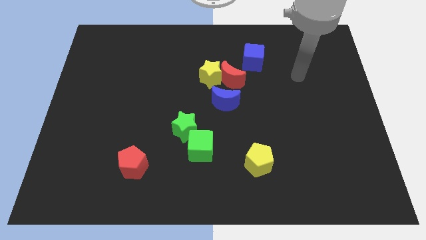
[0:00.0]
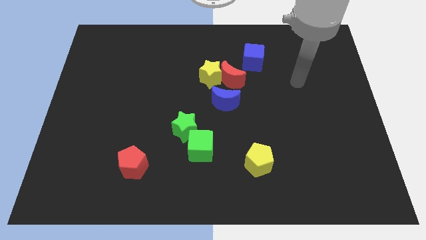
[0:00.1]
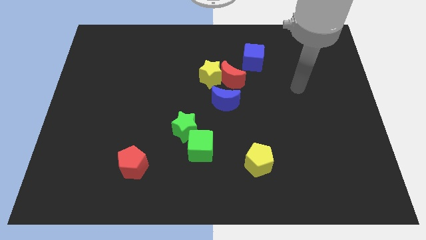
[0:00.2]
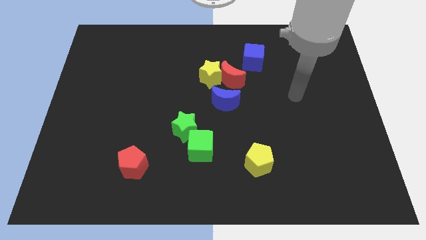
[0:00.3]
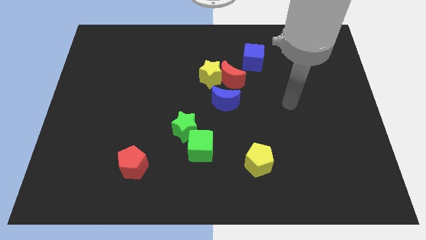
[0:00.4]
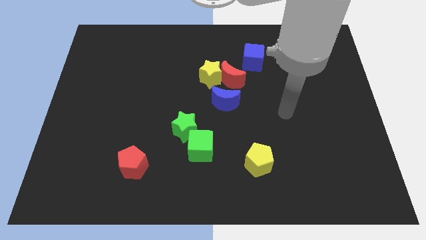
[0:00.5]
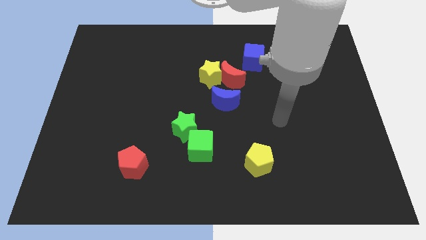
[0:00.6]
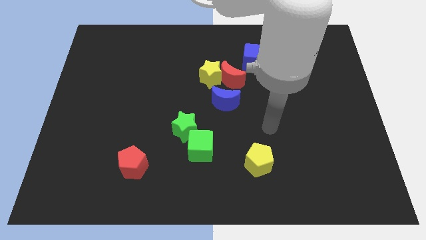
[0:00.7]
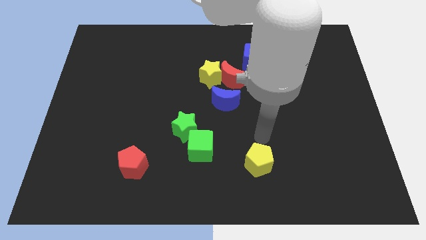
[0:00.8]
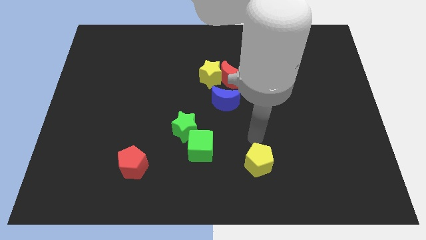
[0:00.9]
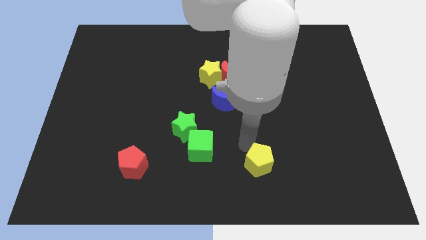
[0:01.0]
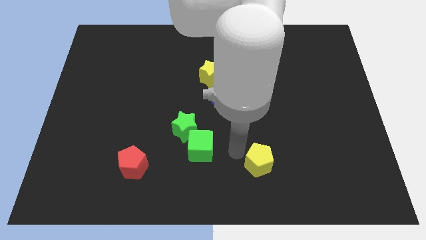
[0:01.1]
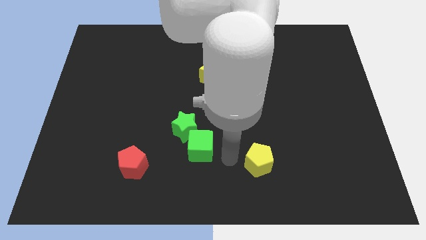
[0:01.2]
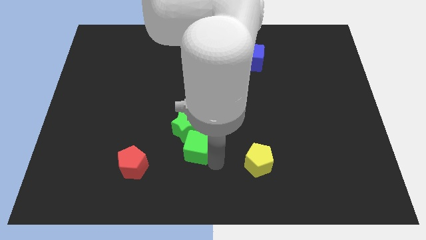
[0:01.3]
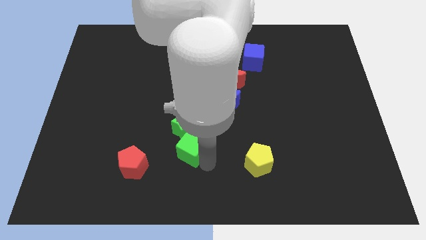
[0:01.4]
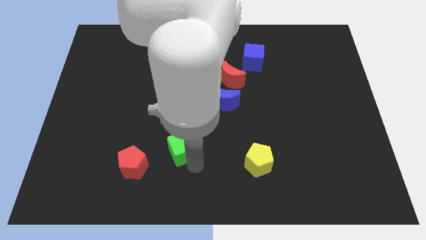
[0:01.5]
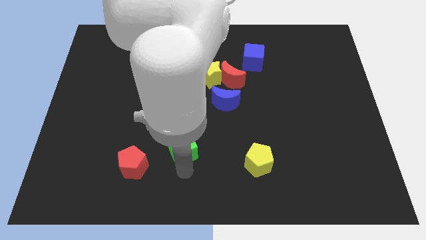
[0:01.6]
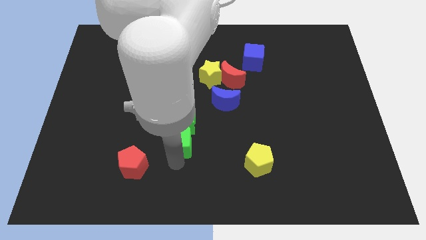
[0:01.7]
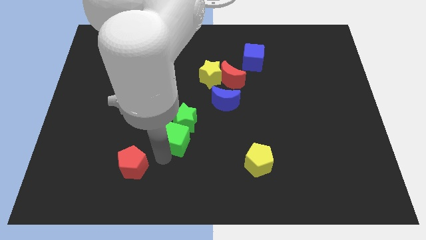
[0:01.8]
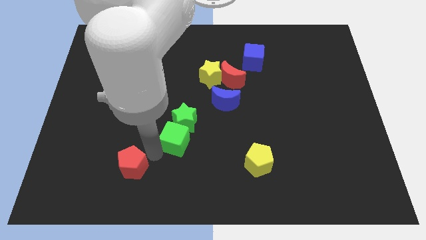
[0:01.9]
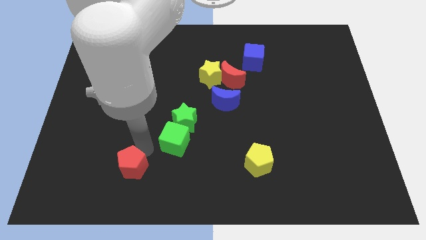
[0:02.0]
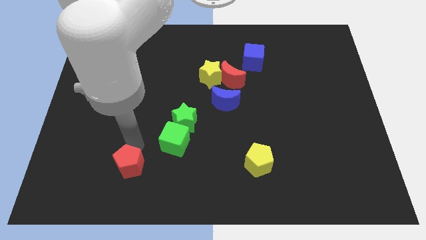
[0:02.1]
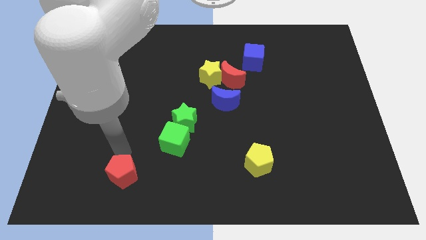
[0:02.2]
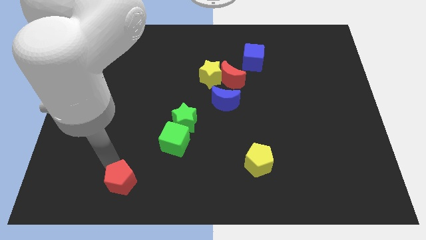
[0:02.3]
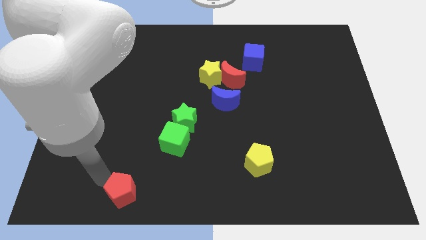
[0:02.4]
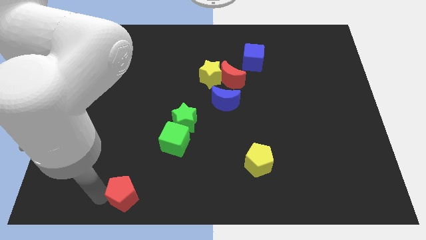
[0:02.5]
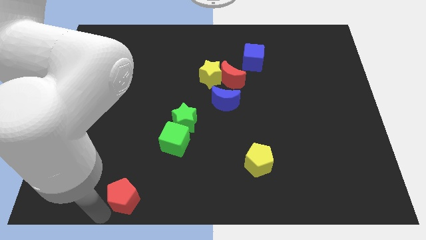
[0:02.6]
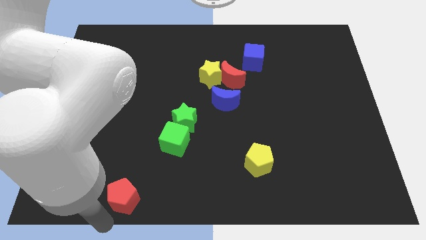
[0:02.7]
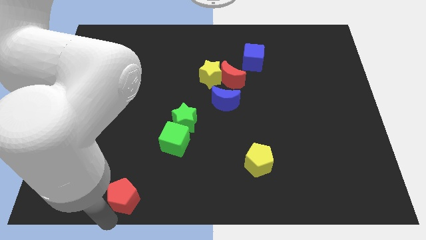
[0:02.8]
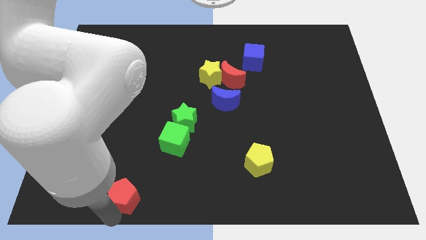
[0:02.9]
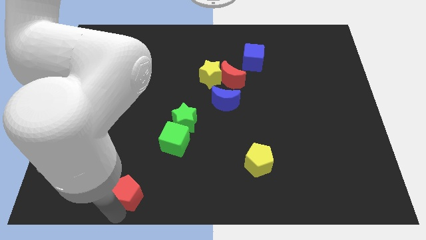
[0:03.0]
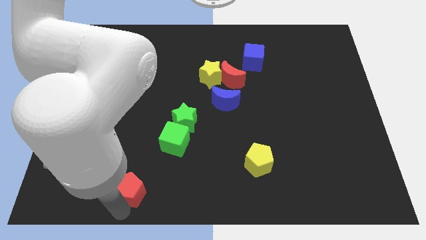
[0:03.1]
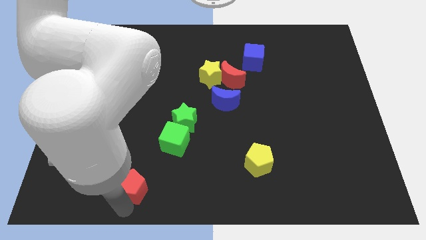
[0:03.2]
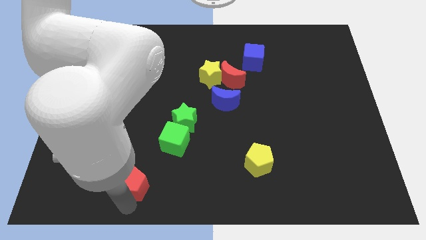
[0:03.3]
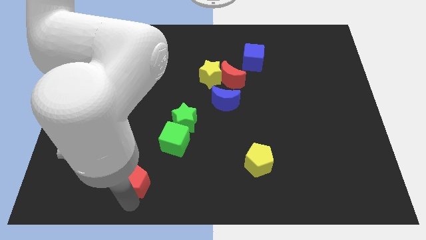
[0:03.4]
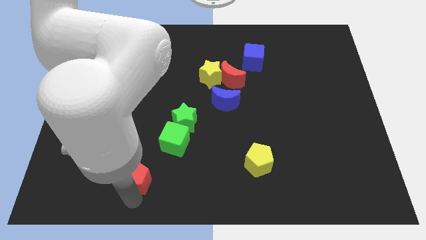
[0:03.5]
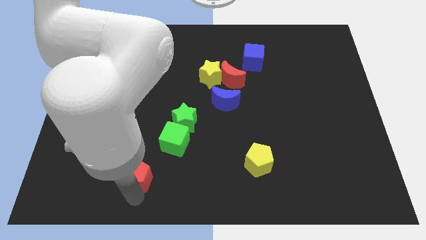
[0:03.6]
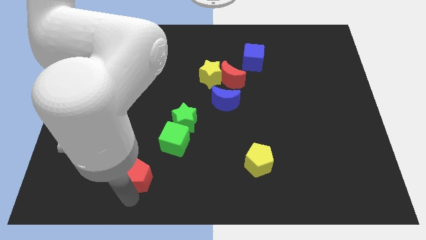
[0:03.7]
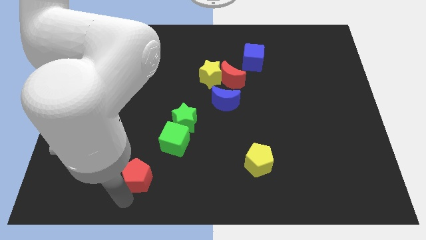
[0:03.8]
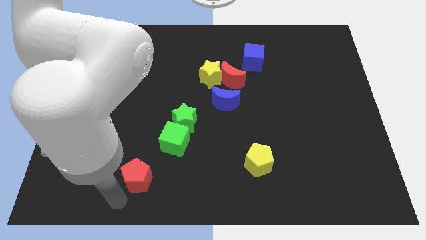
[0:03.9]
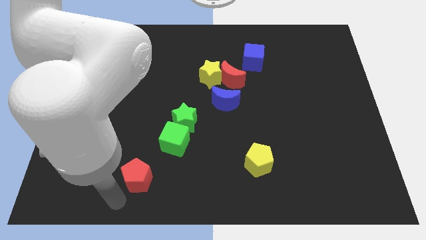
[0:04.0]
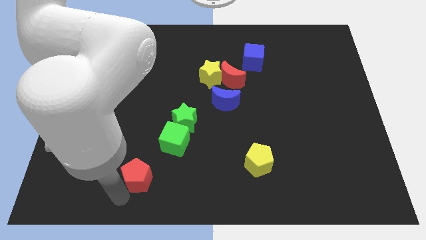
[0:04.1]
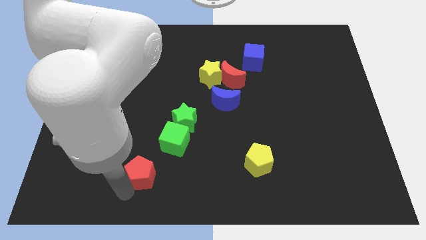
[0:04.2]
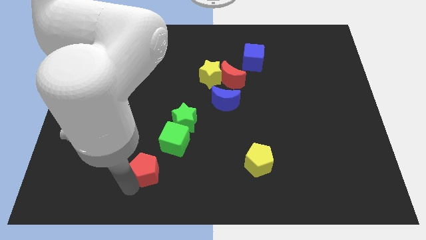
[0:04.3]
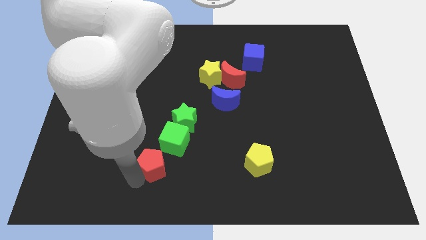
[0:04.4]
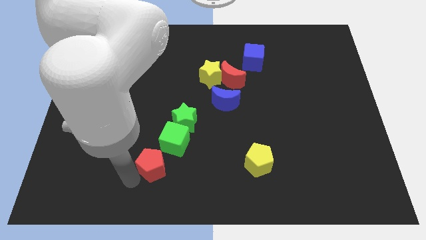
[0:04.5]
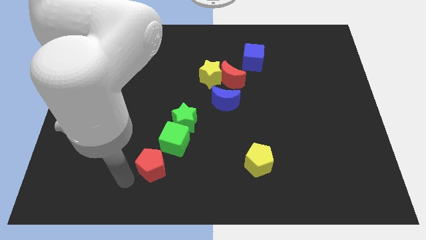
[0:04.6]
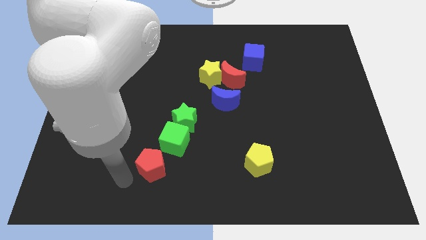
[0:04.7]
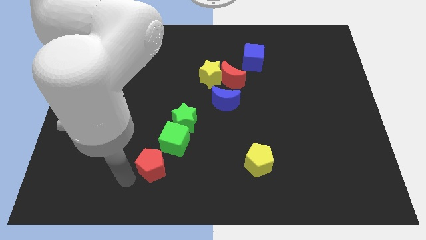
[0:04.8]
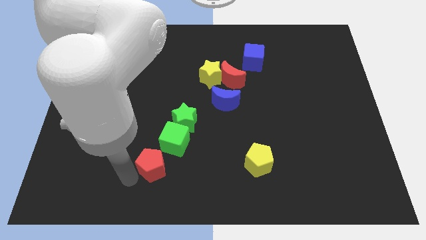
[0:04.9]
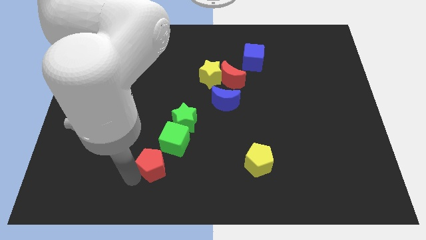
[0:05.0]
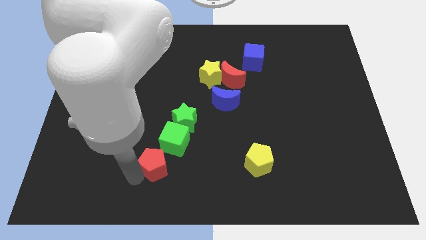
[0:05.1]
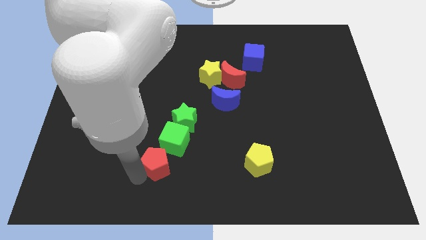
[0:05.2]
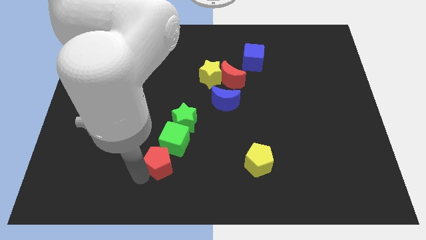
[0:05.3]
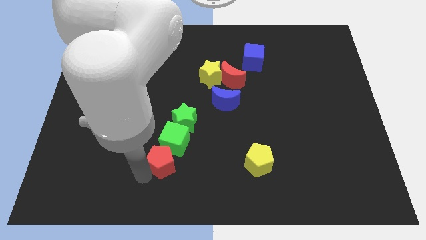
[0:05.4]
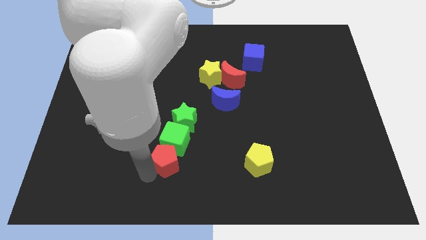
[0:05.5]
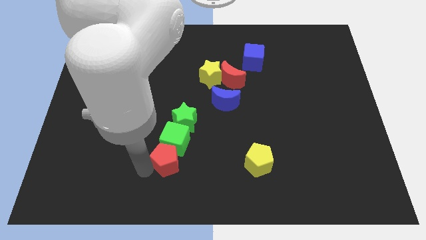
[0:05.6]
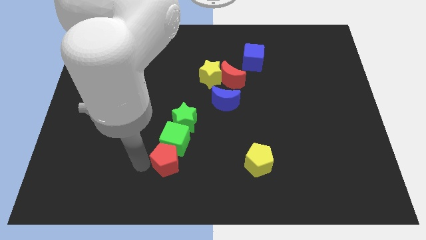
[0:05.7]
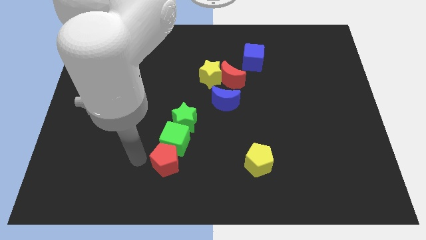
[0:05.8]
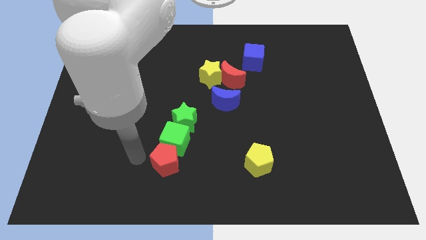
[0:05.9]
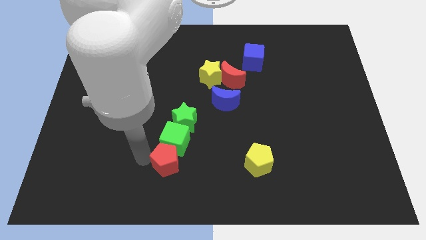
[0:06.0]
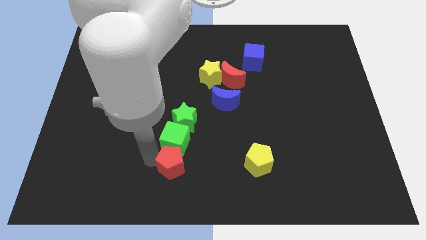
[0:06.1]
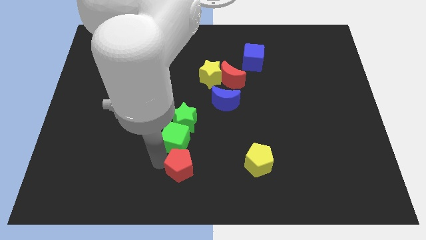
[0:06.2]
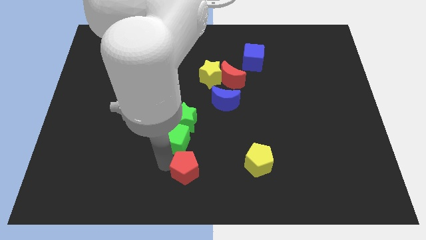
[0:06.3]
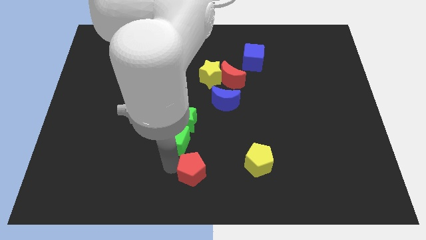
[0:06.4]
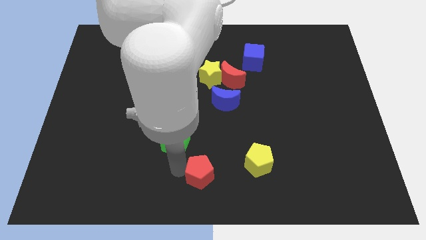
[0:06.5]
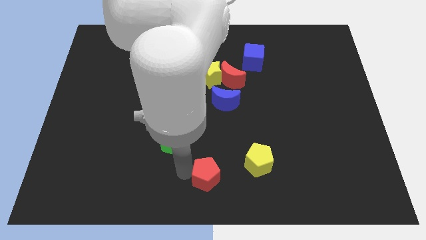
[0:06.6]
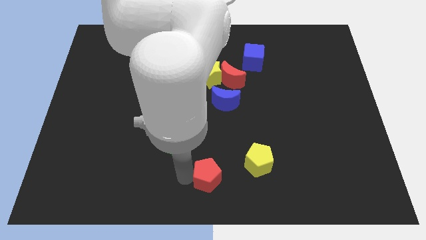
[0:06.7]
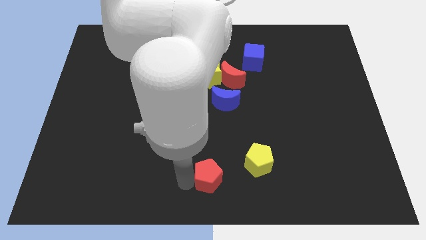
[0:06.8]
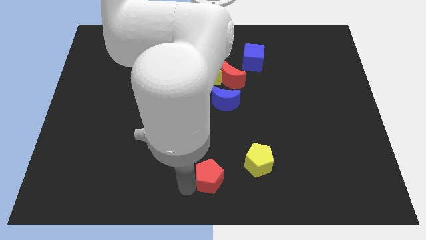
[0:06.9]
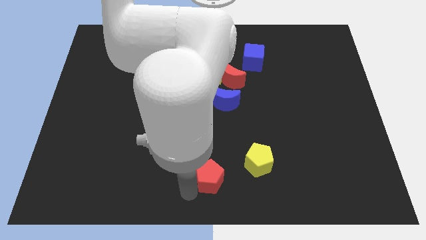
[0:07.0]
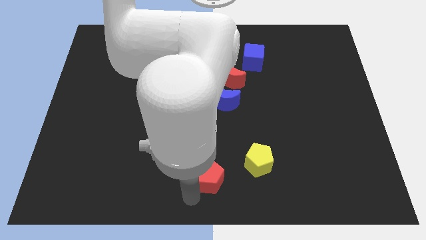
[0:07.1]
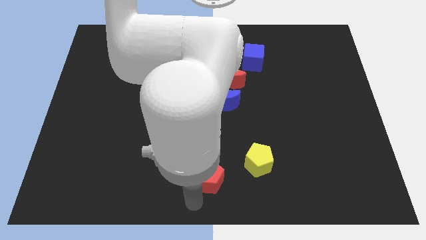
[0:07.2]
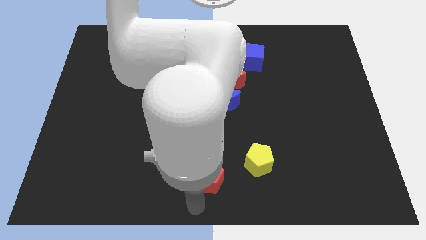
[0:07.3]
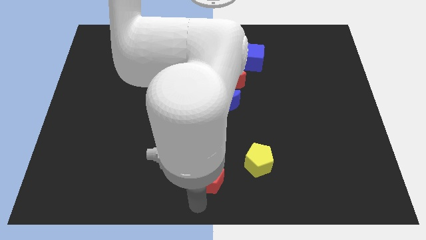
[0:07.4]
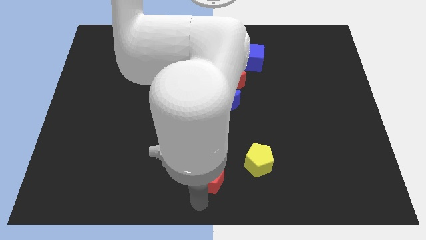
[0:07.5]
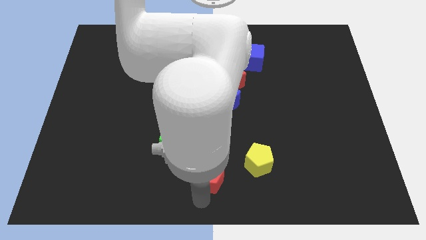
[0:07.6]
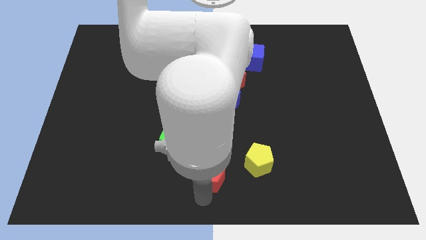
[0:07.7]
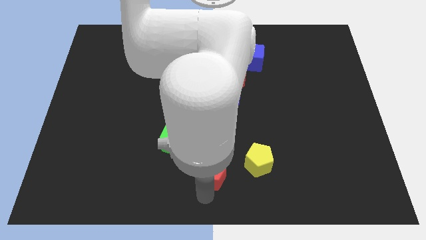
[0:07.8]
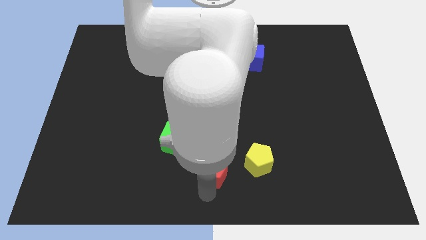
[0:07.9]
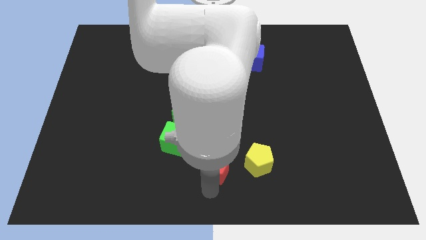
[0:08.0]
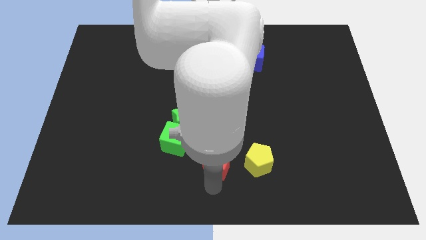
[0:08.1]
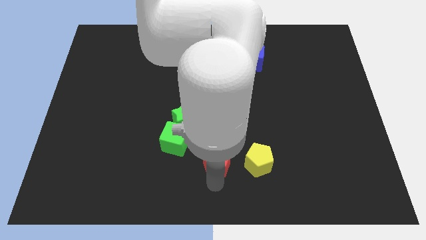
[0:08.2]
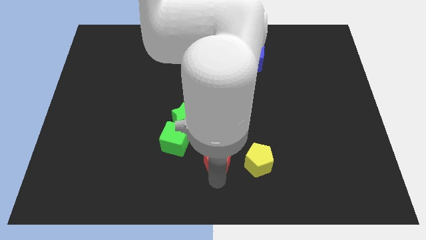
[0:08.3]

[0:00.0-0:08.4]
push the red pentagon below the blue moon
